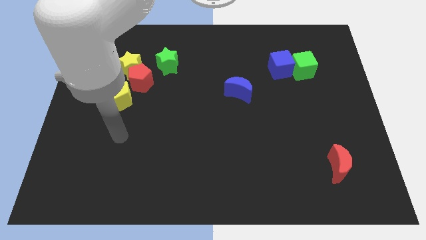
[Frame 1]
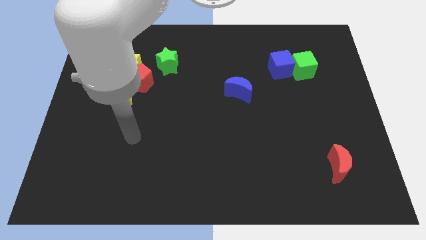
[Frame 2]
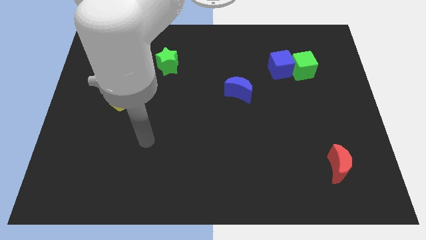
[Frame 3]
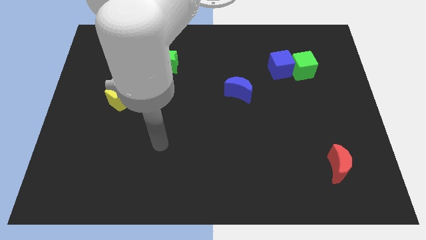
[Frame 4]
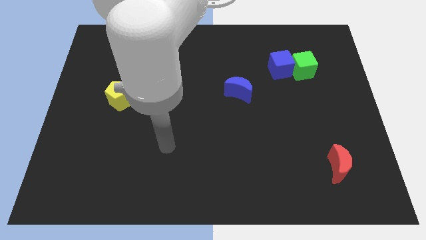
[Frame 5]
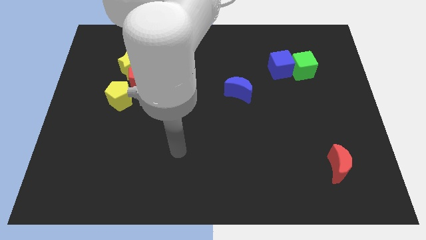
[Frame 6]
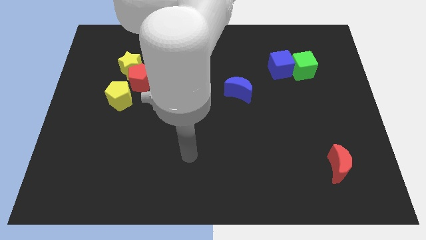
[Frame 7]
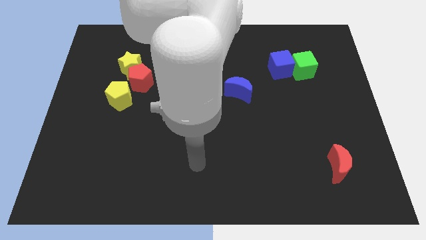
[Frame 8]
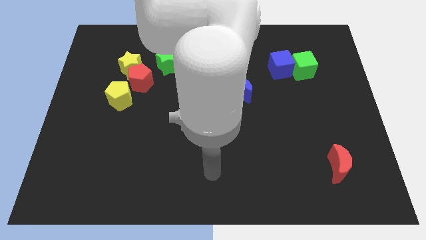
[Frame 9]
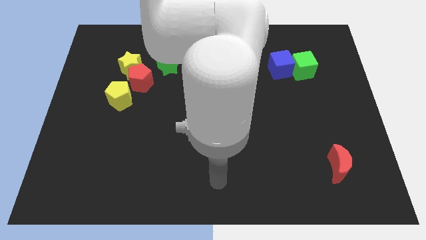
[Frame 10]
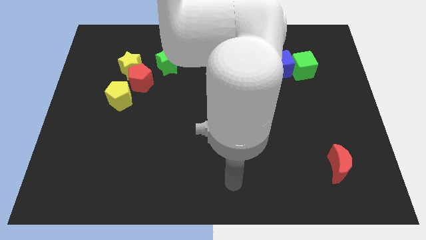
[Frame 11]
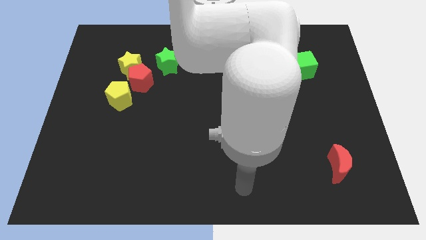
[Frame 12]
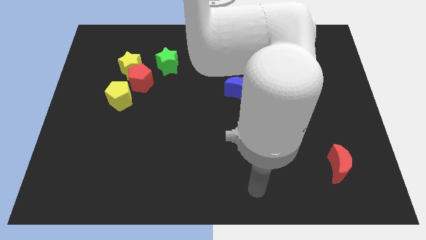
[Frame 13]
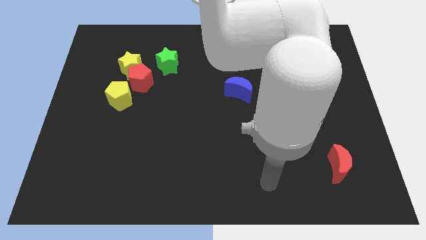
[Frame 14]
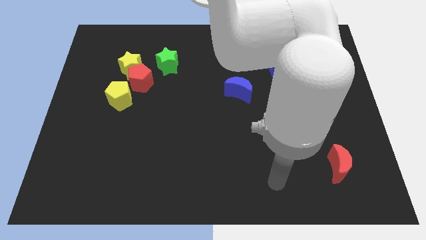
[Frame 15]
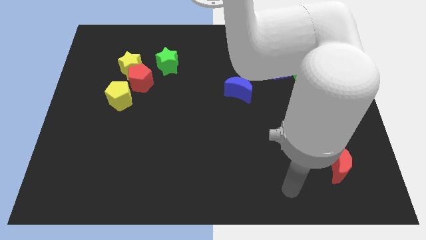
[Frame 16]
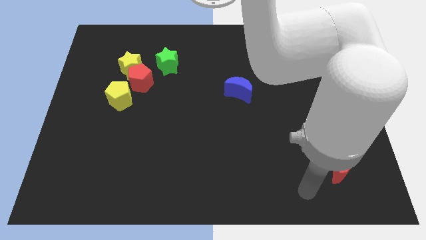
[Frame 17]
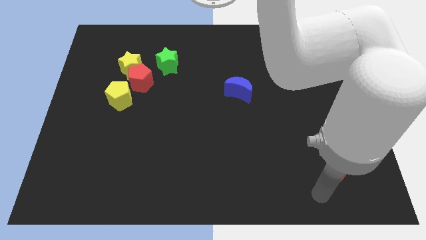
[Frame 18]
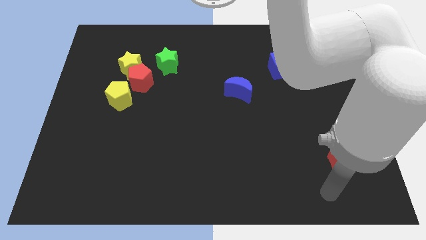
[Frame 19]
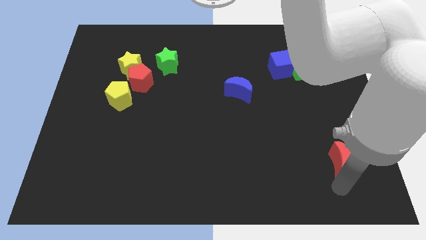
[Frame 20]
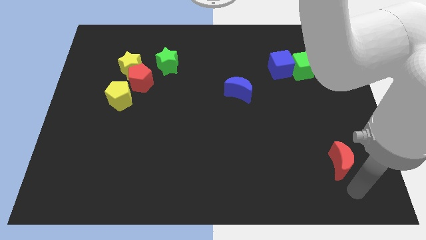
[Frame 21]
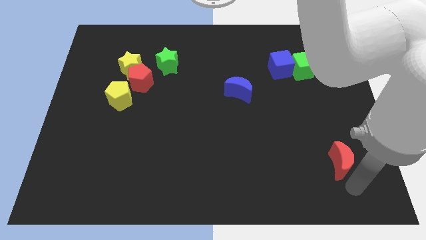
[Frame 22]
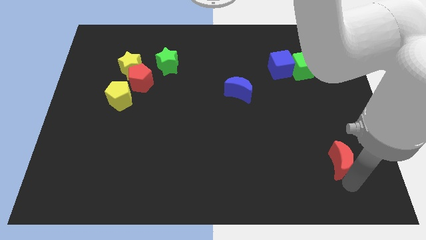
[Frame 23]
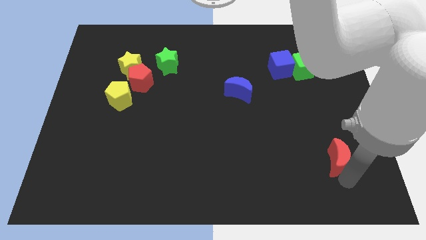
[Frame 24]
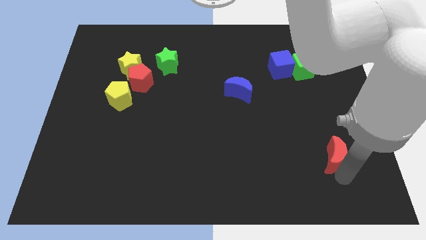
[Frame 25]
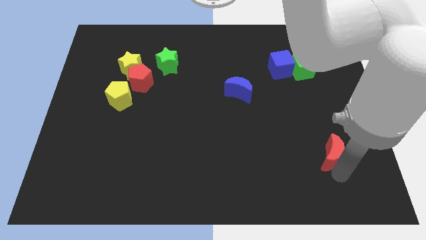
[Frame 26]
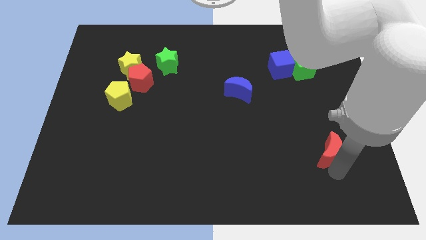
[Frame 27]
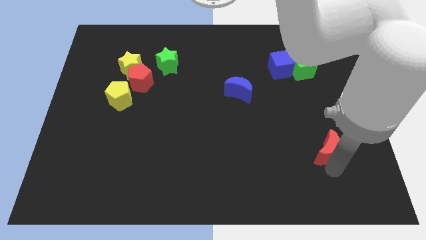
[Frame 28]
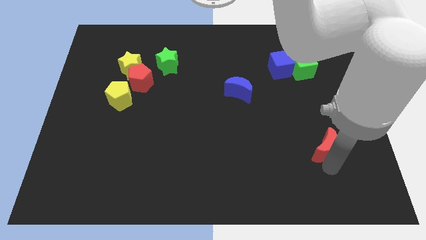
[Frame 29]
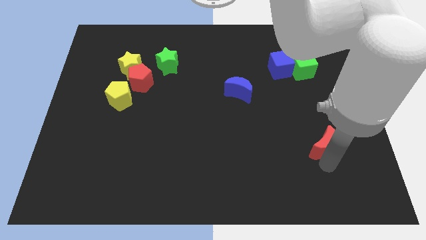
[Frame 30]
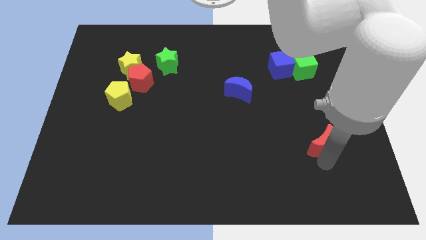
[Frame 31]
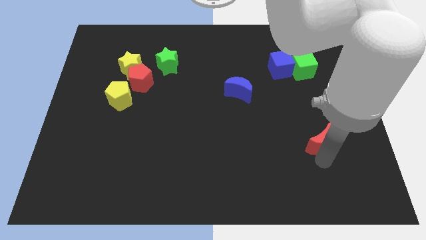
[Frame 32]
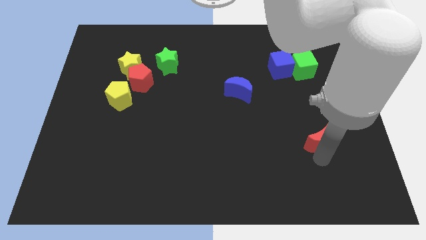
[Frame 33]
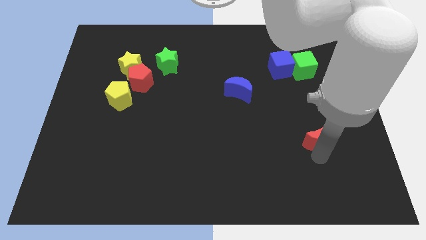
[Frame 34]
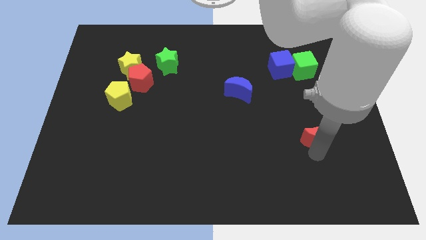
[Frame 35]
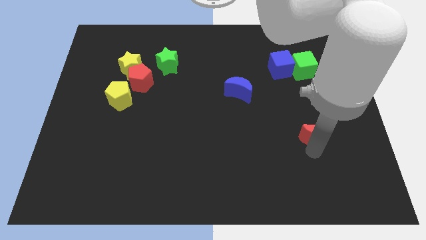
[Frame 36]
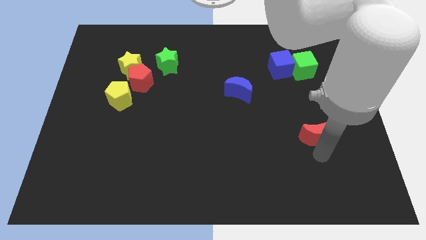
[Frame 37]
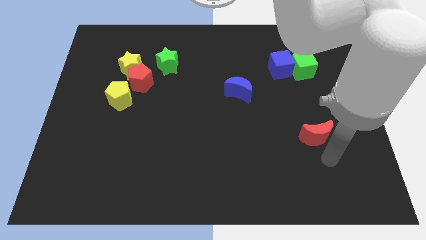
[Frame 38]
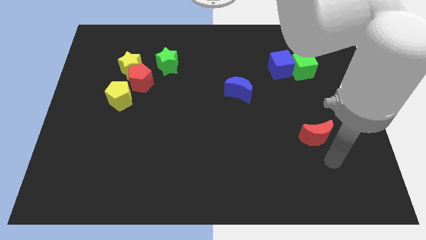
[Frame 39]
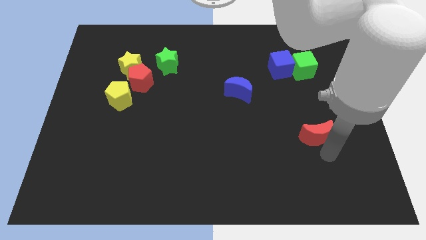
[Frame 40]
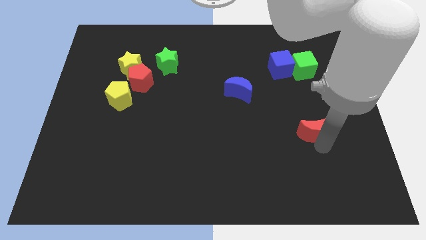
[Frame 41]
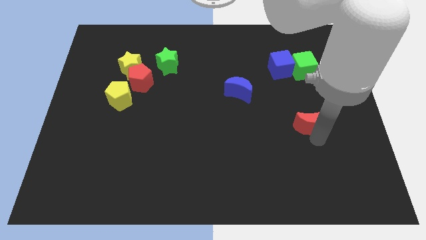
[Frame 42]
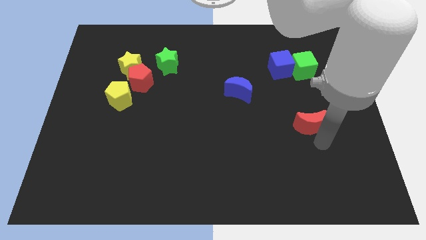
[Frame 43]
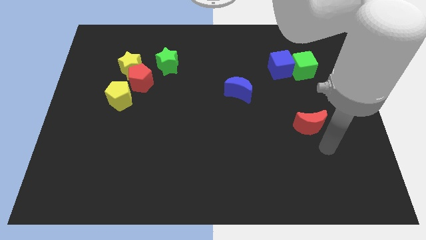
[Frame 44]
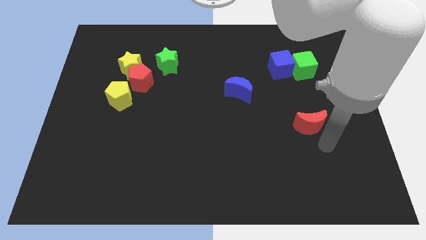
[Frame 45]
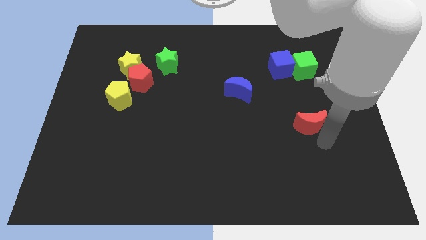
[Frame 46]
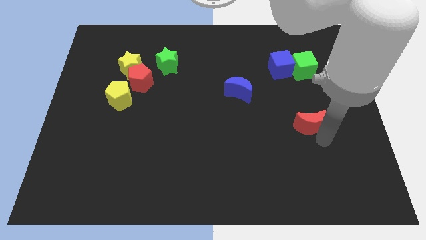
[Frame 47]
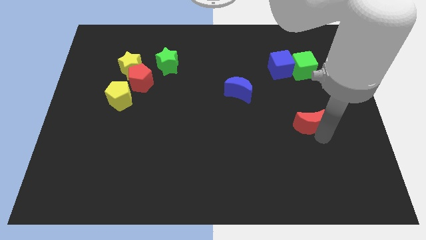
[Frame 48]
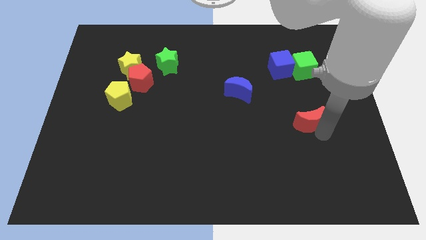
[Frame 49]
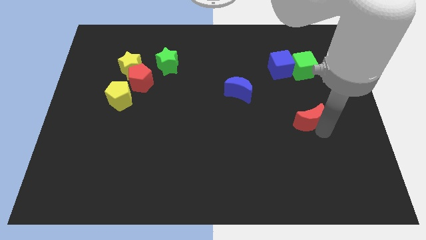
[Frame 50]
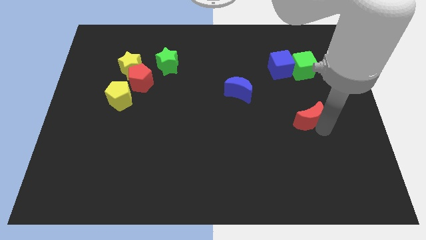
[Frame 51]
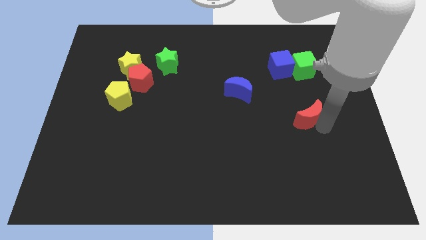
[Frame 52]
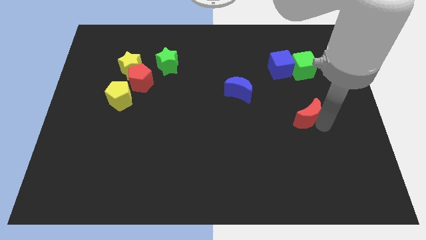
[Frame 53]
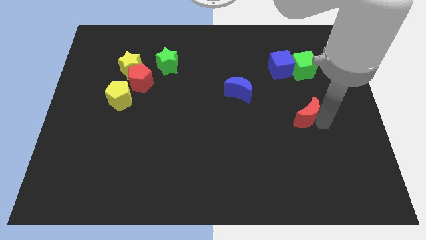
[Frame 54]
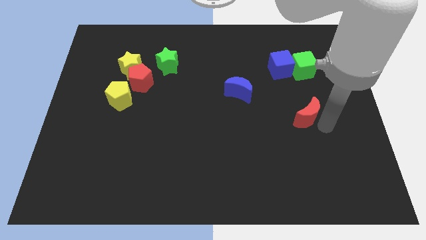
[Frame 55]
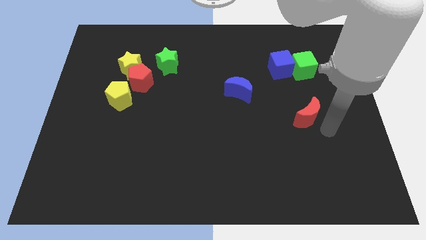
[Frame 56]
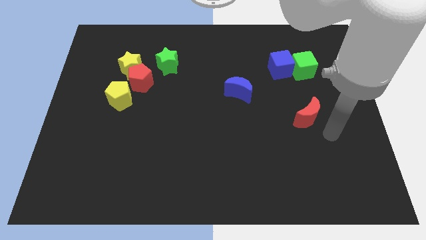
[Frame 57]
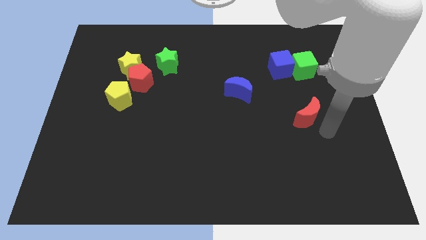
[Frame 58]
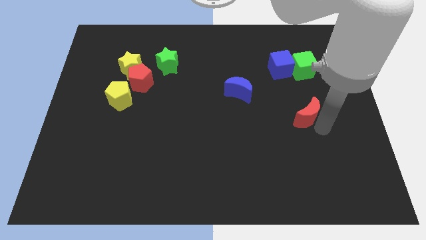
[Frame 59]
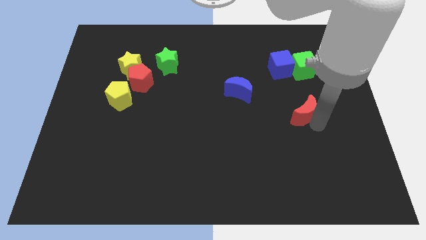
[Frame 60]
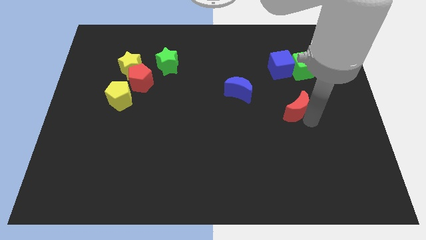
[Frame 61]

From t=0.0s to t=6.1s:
push the red moon below the blue cube

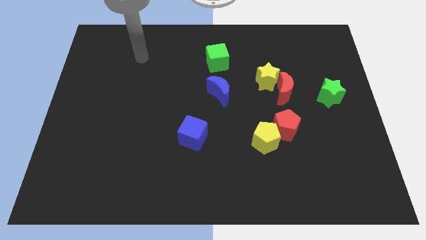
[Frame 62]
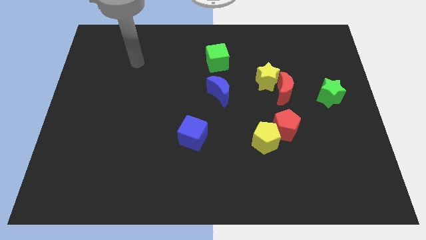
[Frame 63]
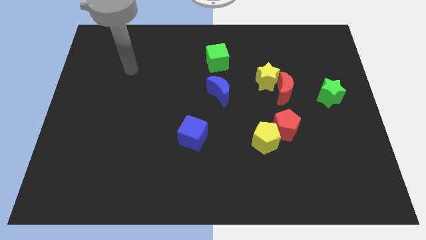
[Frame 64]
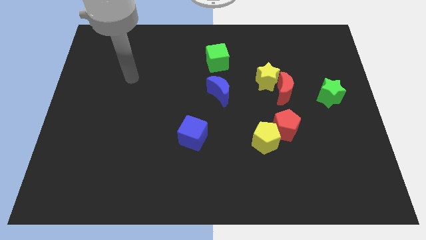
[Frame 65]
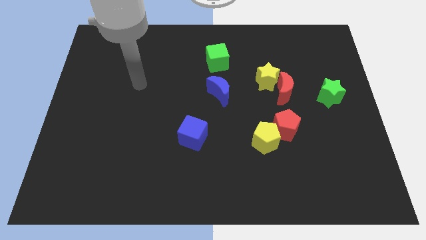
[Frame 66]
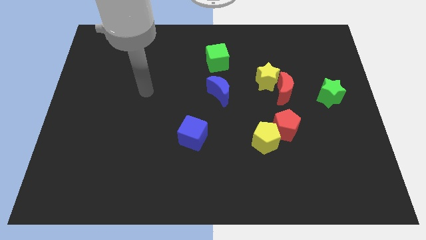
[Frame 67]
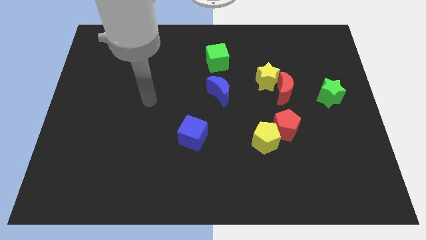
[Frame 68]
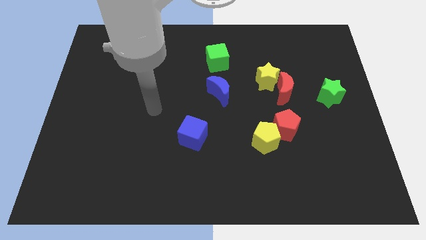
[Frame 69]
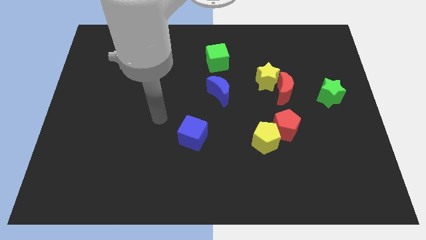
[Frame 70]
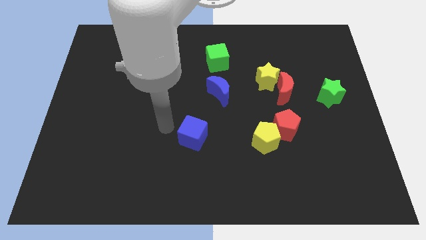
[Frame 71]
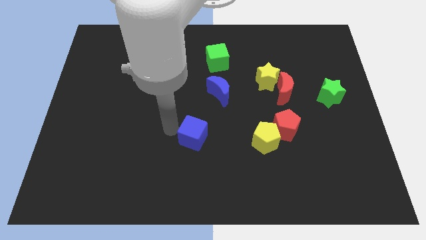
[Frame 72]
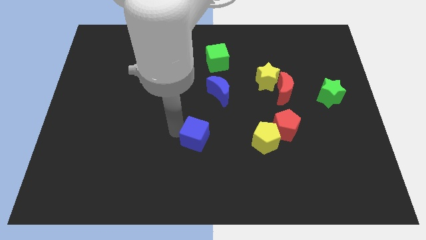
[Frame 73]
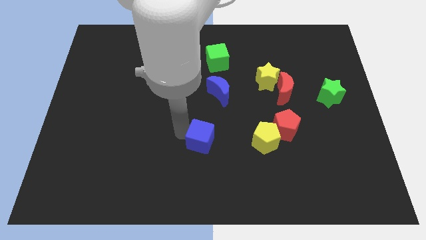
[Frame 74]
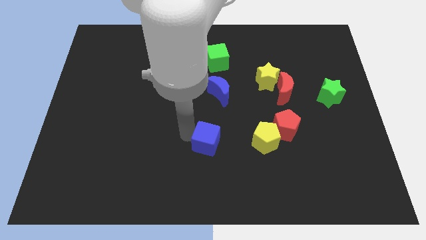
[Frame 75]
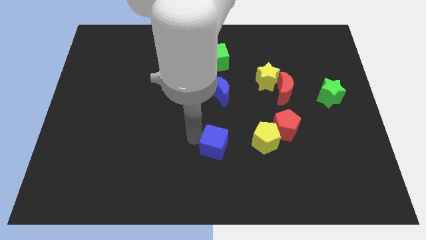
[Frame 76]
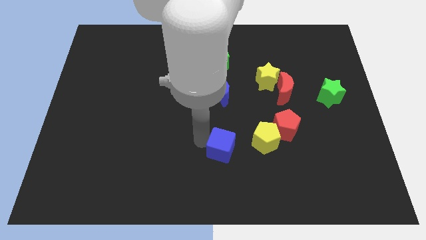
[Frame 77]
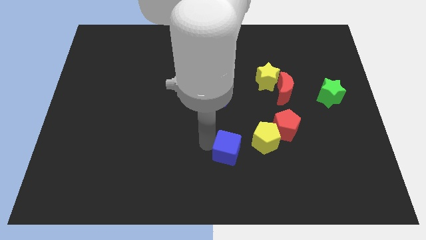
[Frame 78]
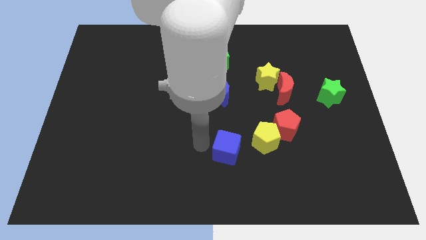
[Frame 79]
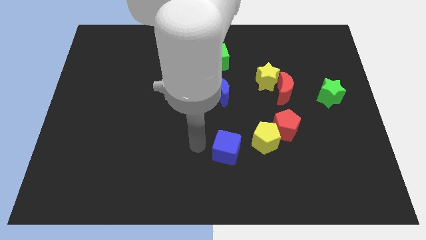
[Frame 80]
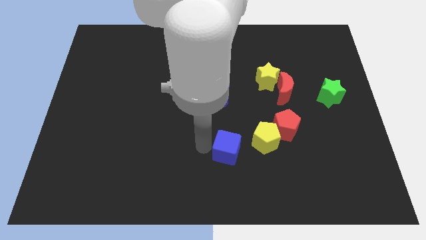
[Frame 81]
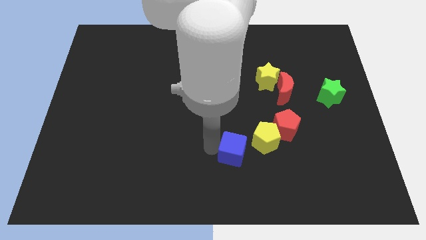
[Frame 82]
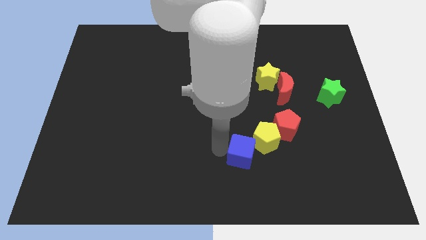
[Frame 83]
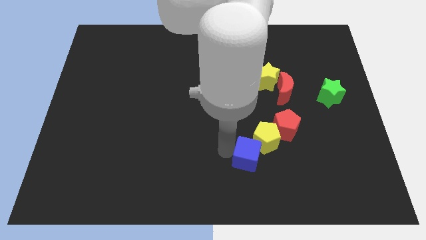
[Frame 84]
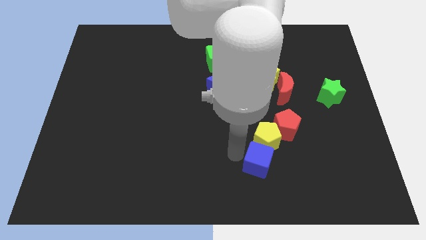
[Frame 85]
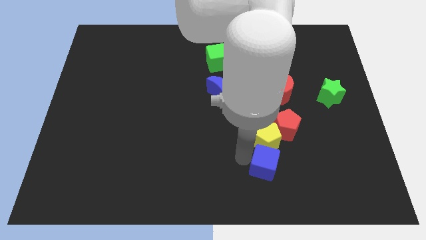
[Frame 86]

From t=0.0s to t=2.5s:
put the blue cube diagonally down and to the right of the yellow pentagon
